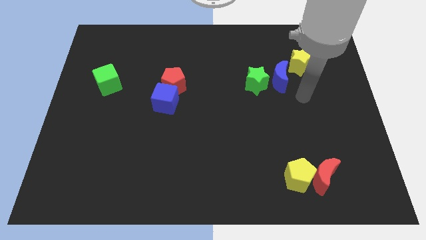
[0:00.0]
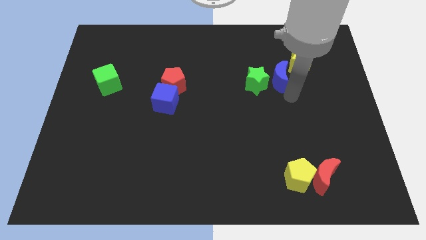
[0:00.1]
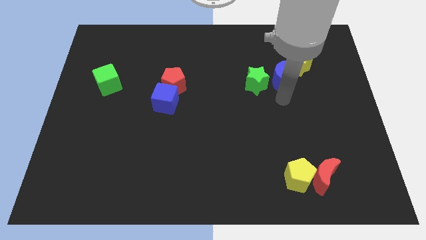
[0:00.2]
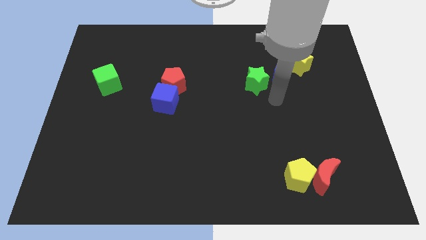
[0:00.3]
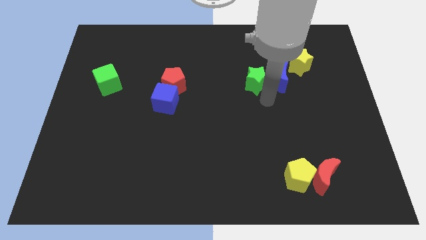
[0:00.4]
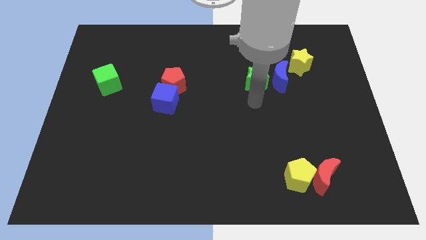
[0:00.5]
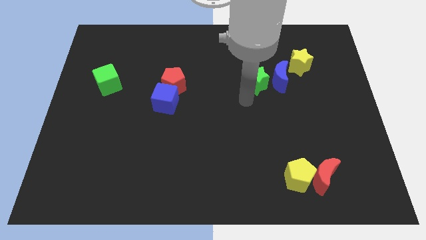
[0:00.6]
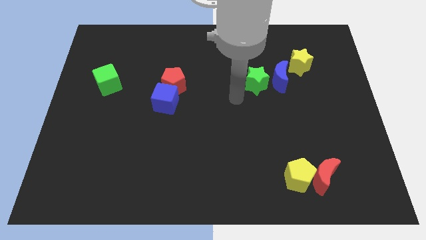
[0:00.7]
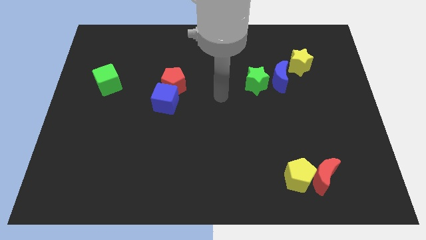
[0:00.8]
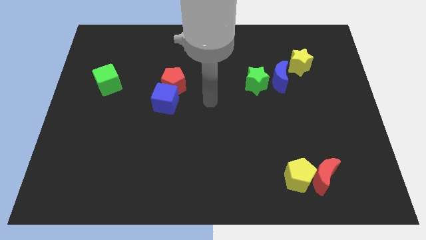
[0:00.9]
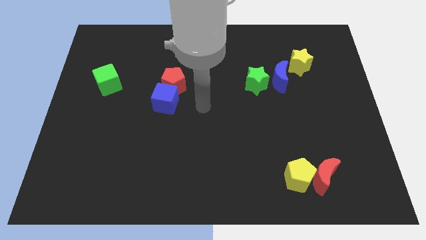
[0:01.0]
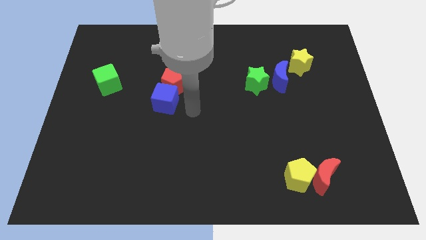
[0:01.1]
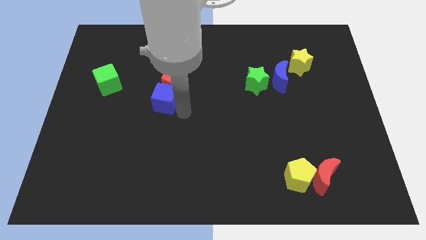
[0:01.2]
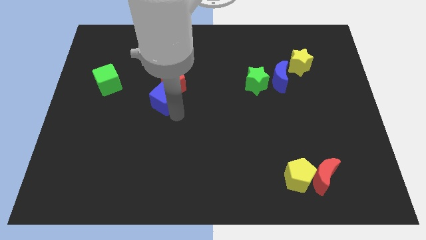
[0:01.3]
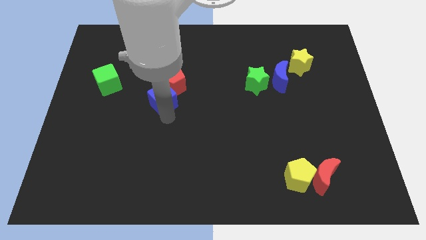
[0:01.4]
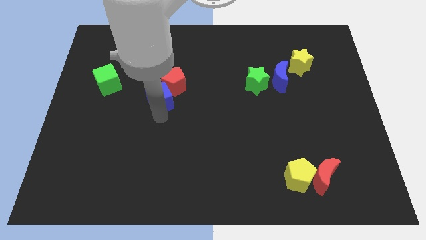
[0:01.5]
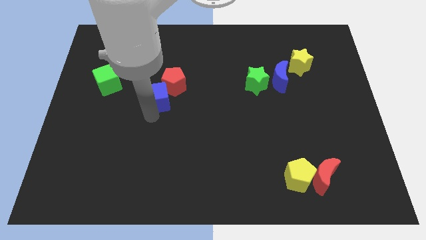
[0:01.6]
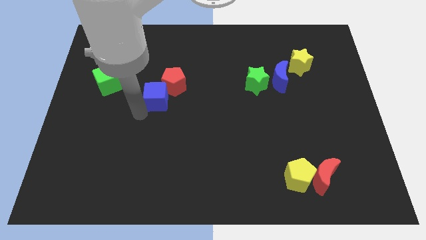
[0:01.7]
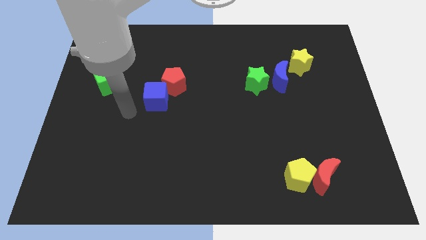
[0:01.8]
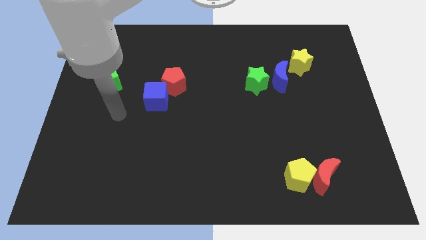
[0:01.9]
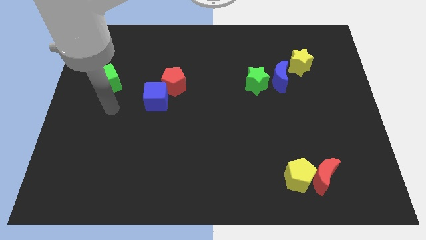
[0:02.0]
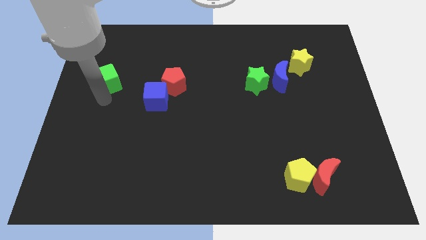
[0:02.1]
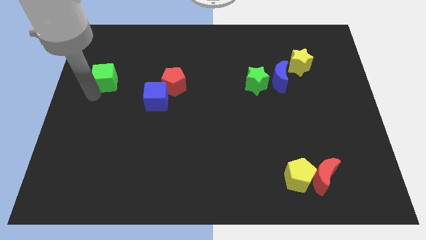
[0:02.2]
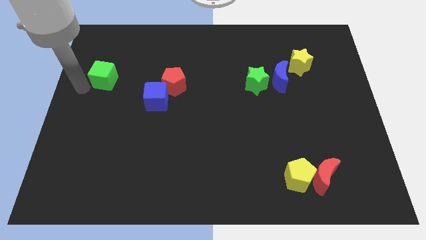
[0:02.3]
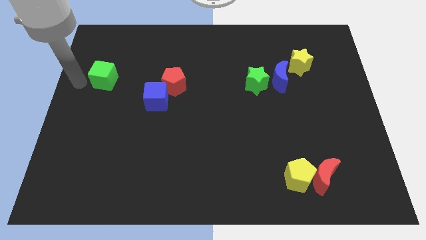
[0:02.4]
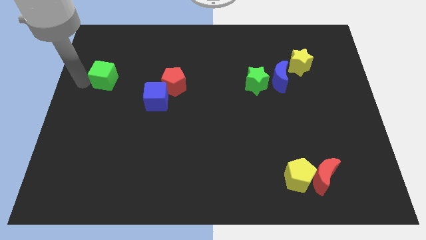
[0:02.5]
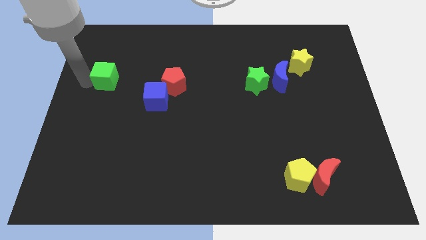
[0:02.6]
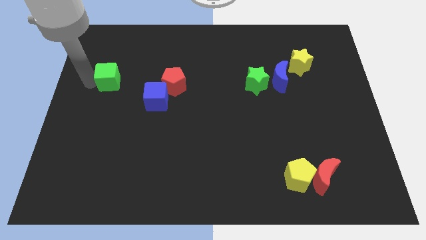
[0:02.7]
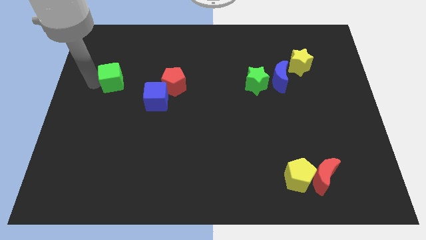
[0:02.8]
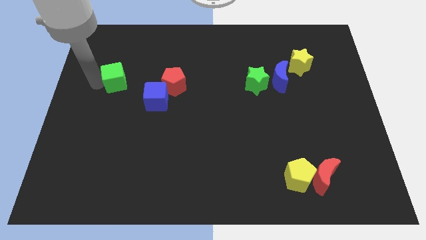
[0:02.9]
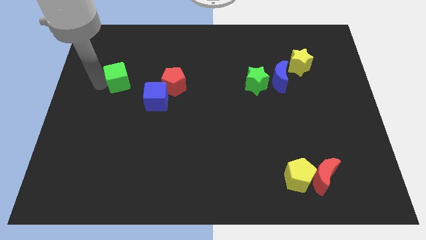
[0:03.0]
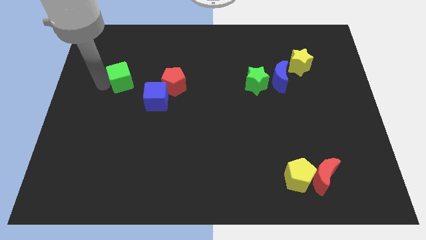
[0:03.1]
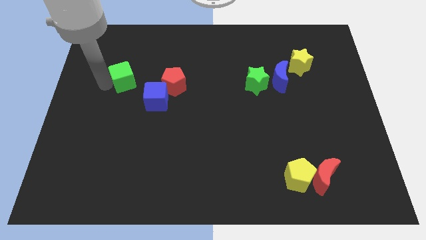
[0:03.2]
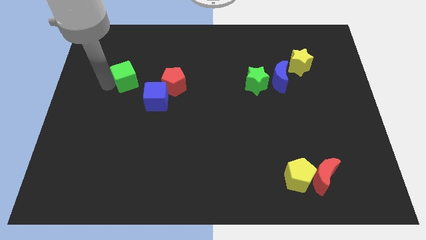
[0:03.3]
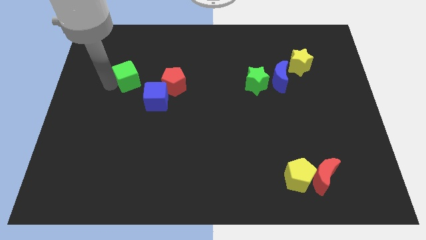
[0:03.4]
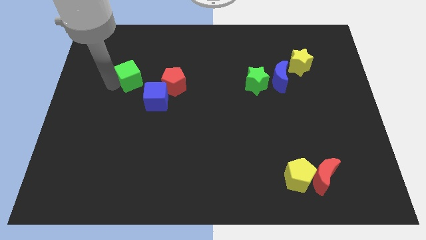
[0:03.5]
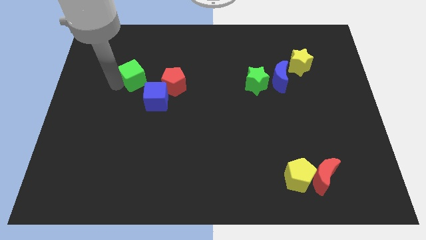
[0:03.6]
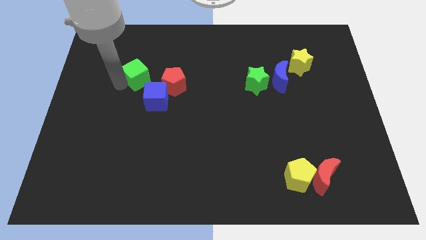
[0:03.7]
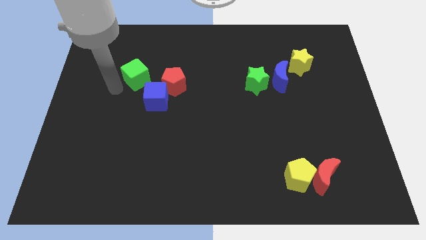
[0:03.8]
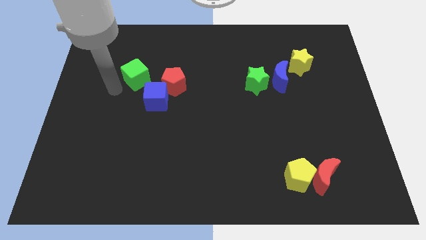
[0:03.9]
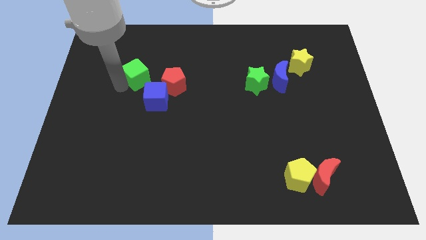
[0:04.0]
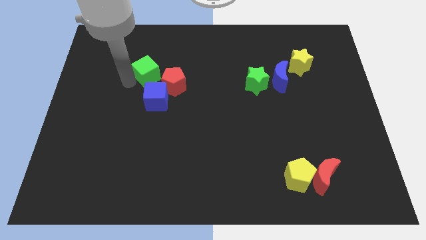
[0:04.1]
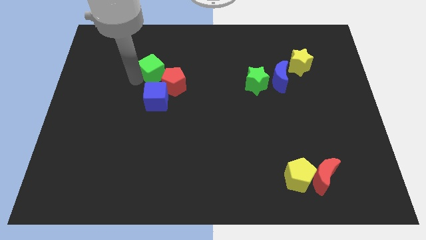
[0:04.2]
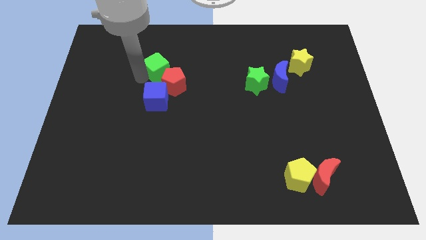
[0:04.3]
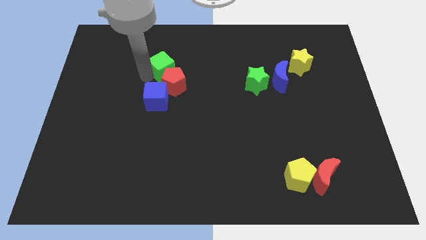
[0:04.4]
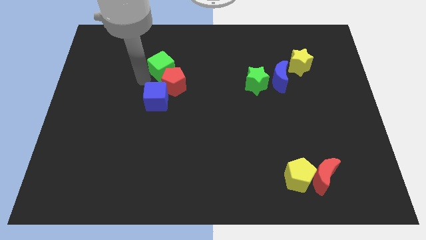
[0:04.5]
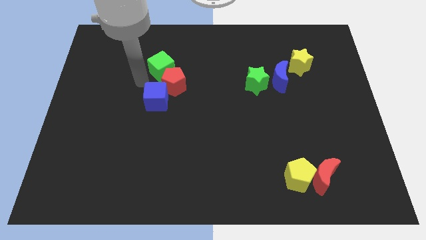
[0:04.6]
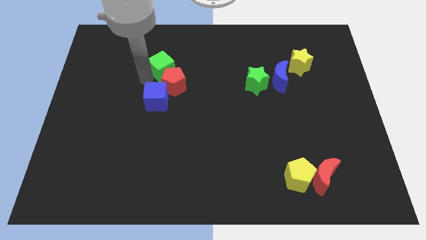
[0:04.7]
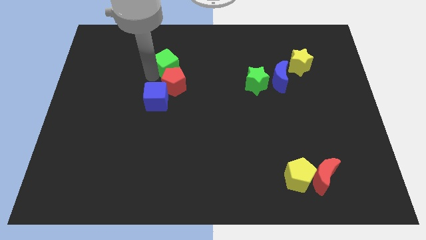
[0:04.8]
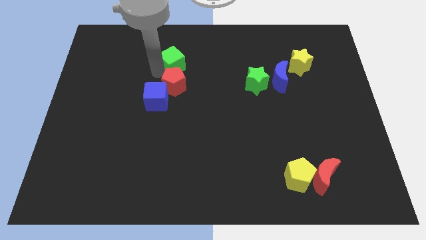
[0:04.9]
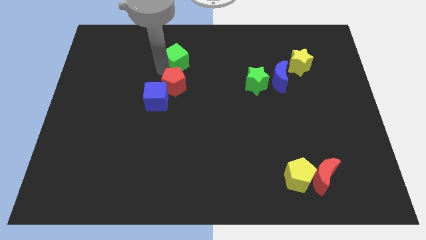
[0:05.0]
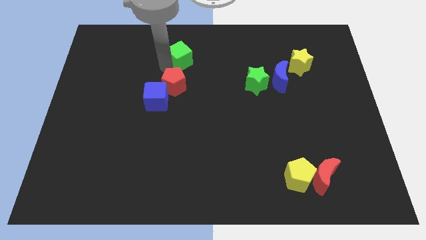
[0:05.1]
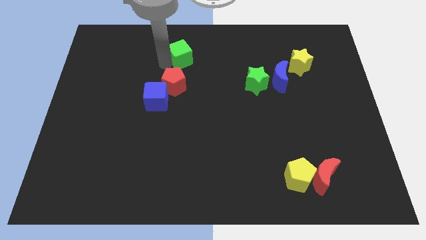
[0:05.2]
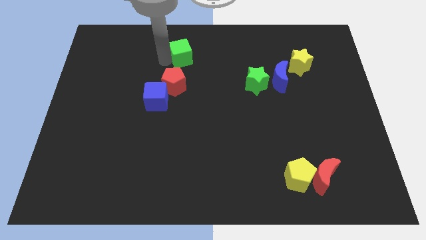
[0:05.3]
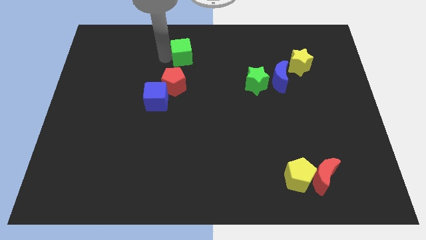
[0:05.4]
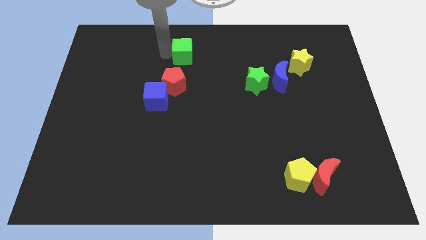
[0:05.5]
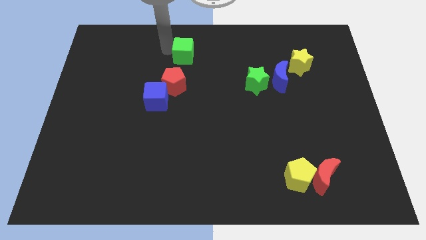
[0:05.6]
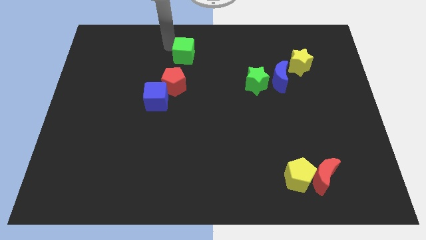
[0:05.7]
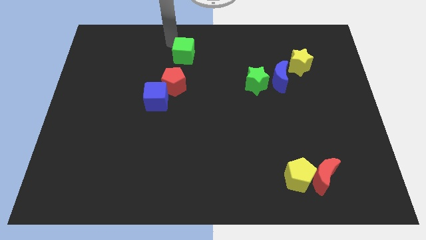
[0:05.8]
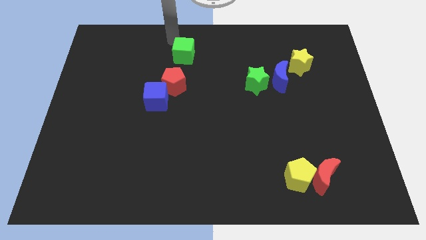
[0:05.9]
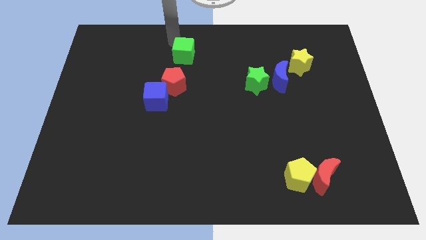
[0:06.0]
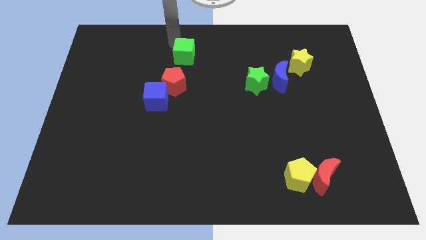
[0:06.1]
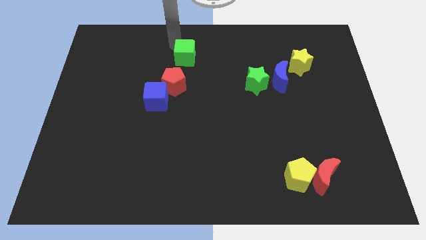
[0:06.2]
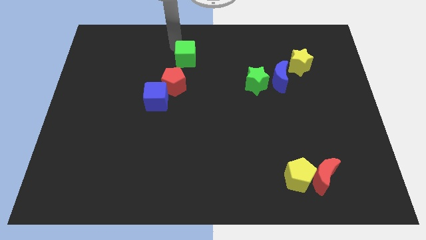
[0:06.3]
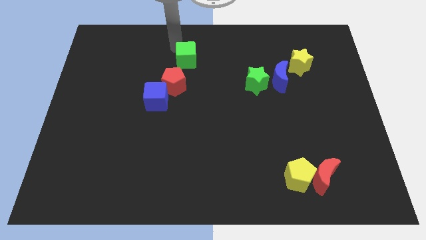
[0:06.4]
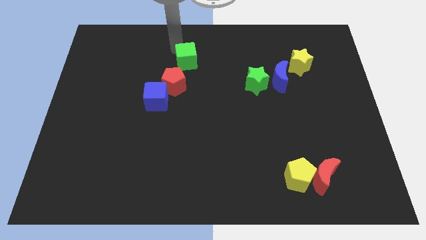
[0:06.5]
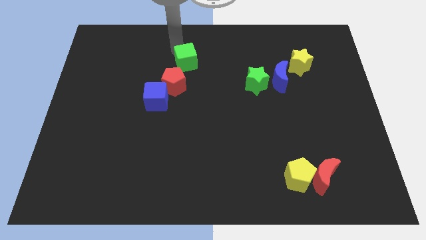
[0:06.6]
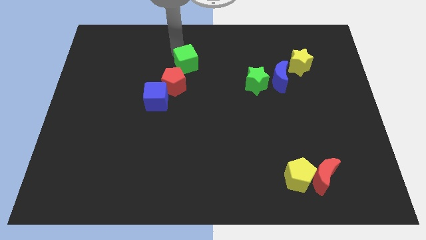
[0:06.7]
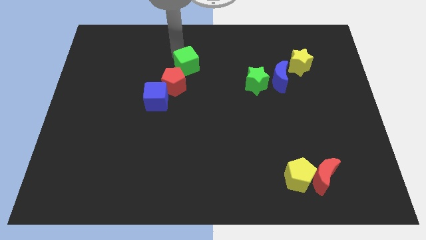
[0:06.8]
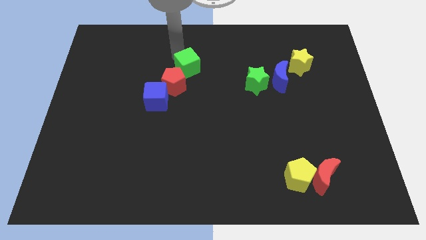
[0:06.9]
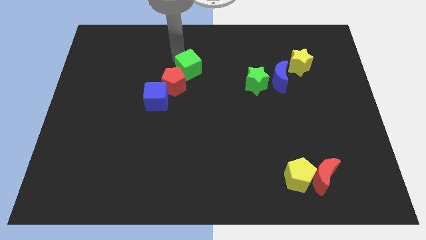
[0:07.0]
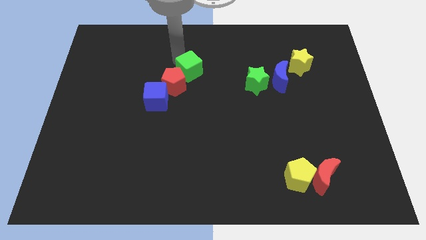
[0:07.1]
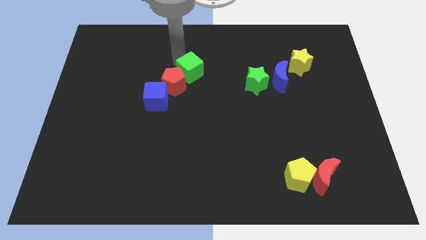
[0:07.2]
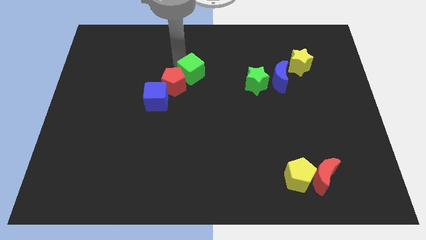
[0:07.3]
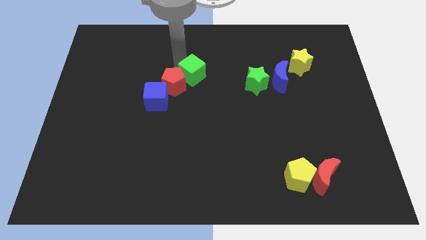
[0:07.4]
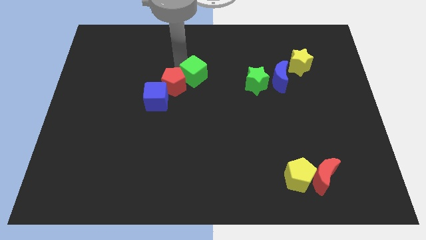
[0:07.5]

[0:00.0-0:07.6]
push the green cube left of the green star
